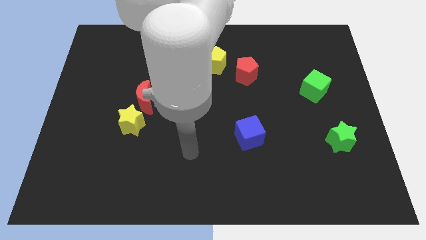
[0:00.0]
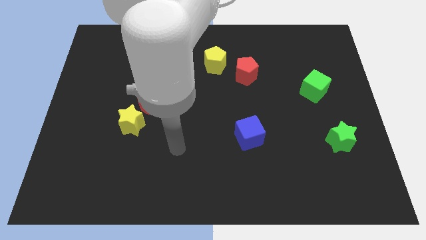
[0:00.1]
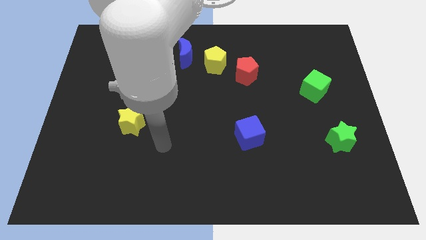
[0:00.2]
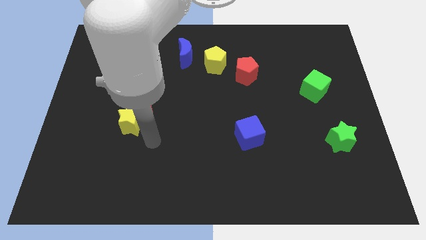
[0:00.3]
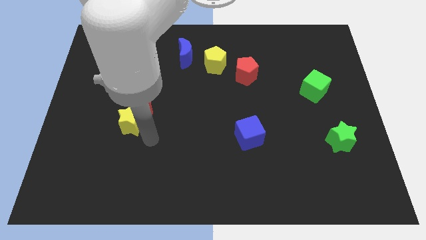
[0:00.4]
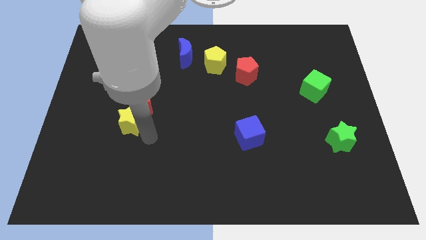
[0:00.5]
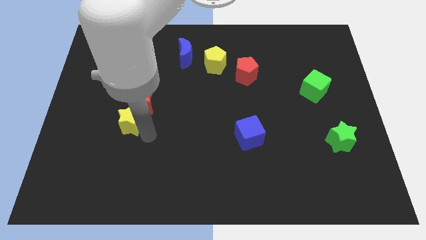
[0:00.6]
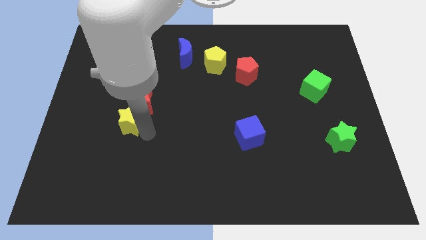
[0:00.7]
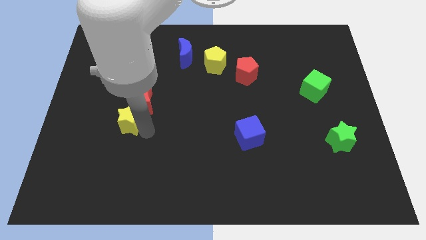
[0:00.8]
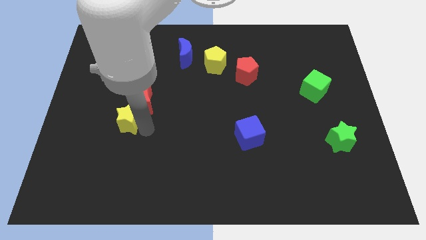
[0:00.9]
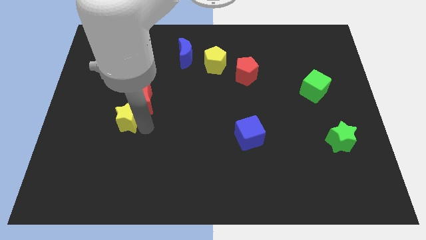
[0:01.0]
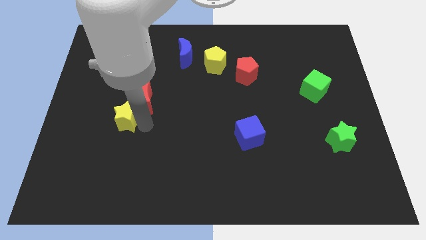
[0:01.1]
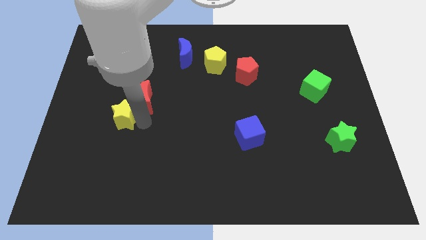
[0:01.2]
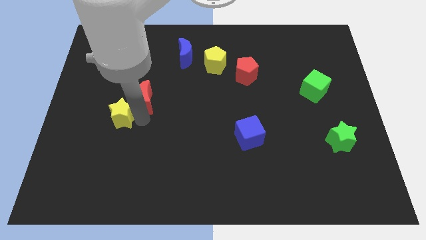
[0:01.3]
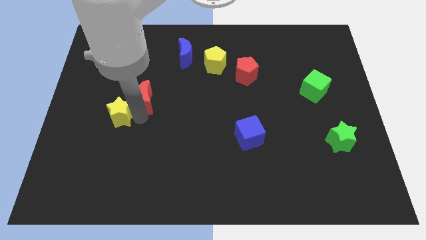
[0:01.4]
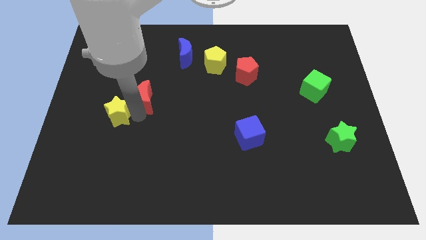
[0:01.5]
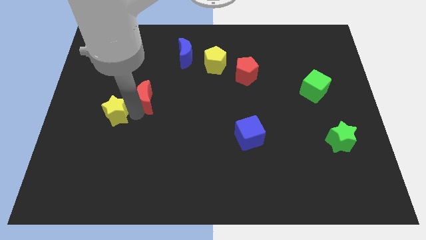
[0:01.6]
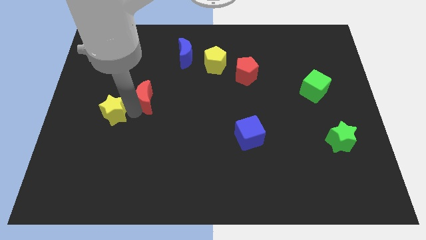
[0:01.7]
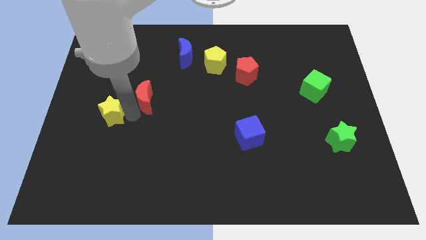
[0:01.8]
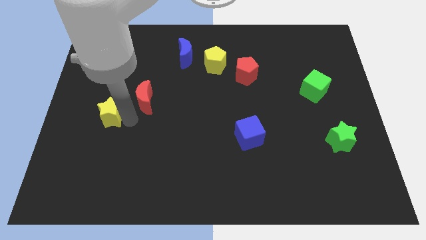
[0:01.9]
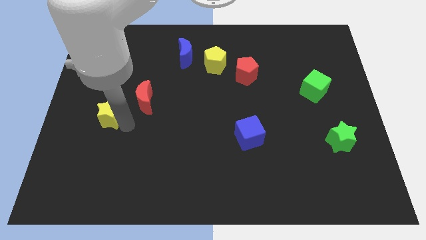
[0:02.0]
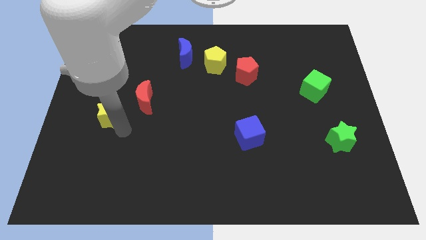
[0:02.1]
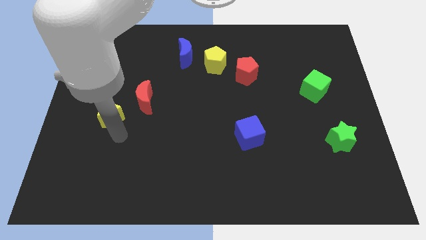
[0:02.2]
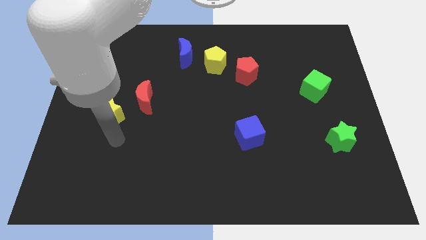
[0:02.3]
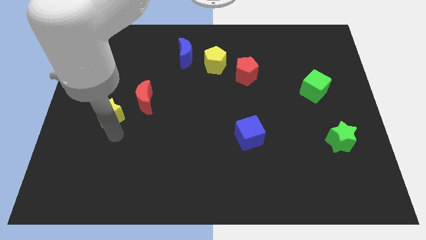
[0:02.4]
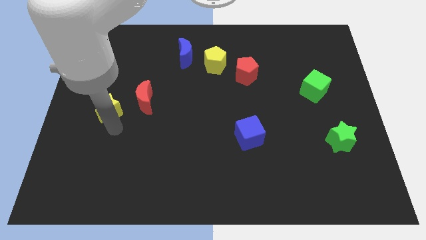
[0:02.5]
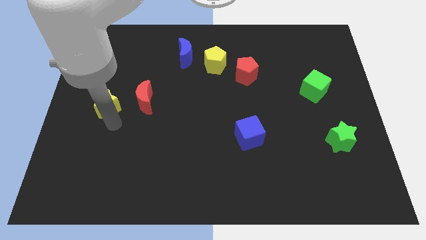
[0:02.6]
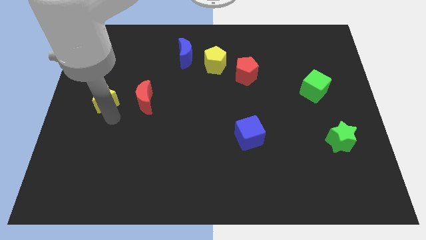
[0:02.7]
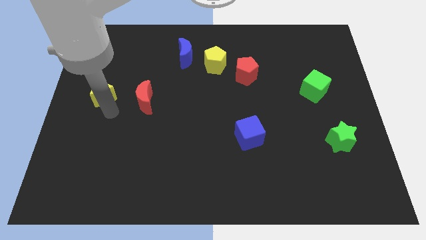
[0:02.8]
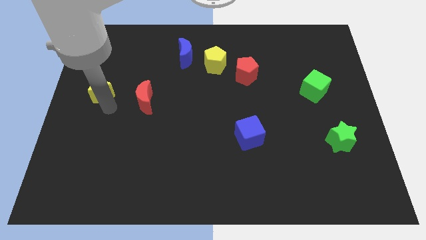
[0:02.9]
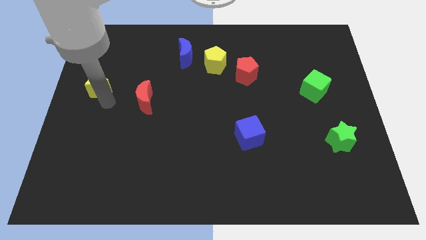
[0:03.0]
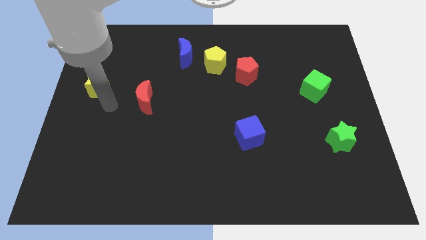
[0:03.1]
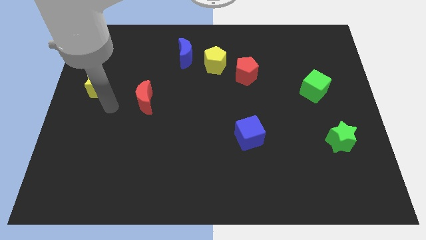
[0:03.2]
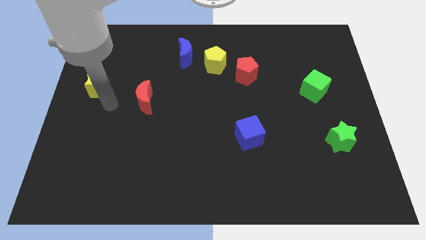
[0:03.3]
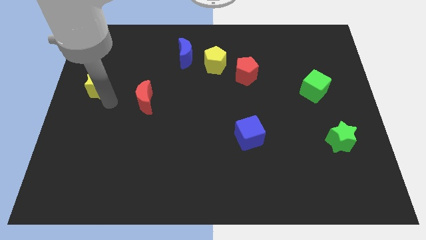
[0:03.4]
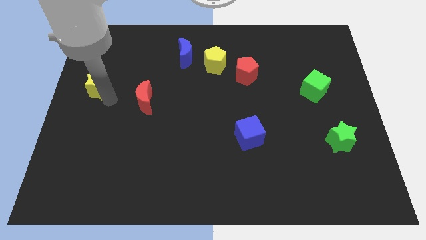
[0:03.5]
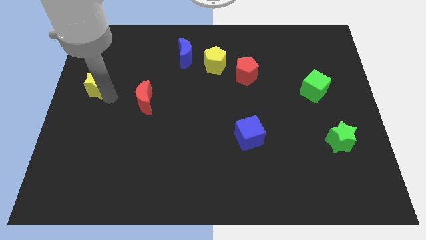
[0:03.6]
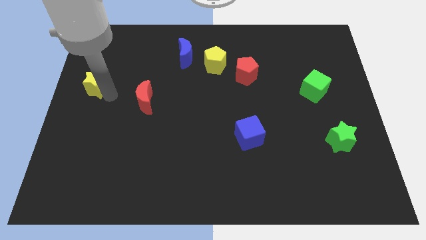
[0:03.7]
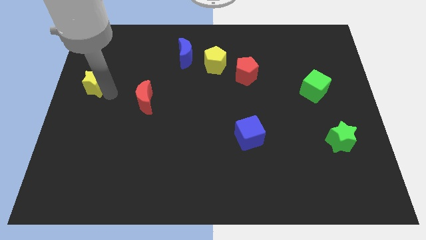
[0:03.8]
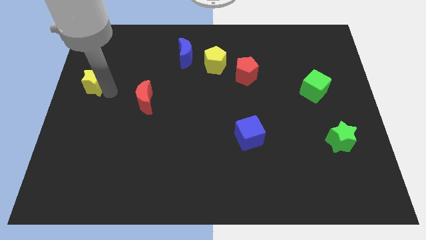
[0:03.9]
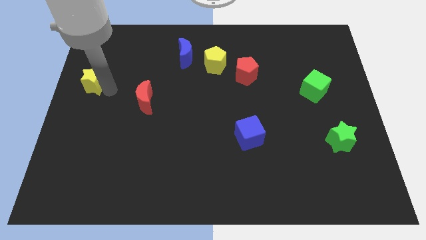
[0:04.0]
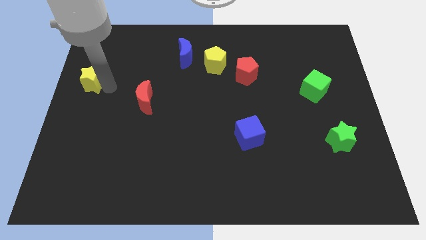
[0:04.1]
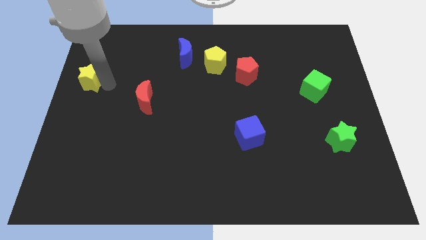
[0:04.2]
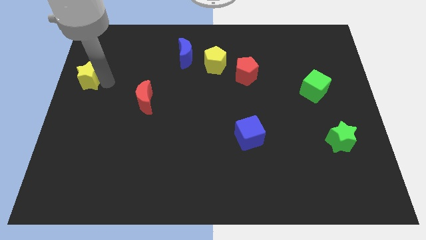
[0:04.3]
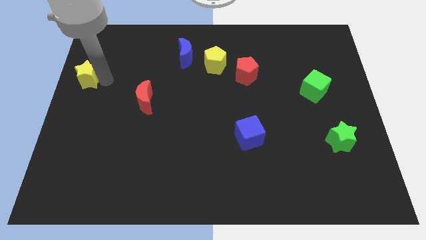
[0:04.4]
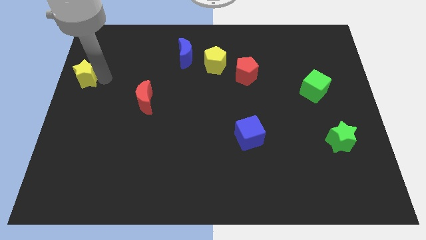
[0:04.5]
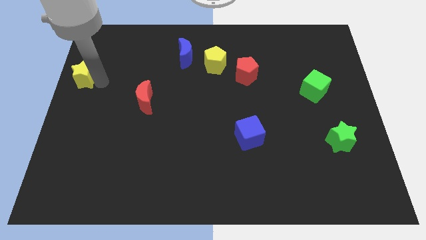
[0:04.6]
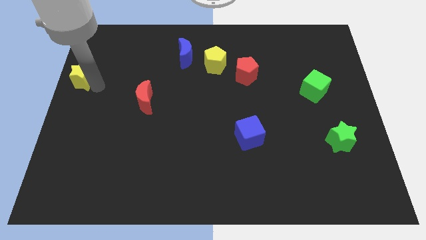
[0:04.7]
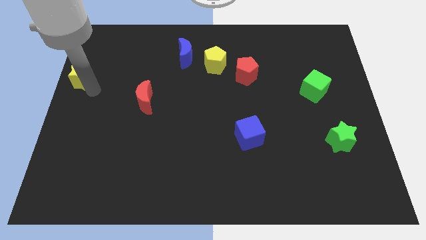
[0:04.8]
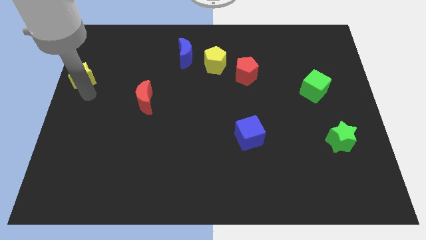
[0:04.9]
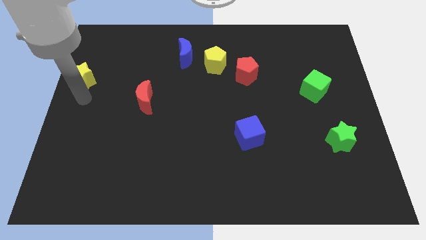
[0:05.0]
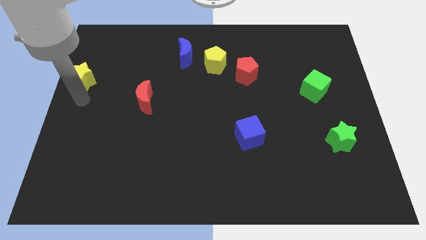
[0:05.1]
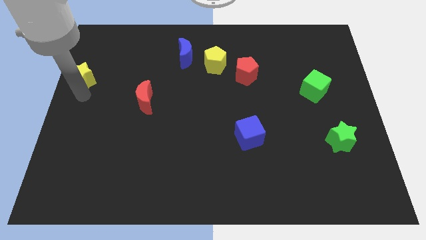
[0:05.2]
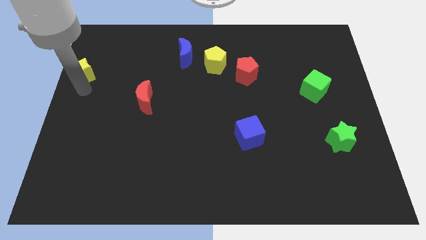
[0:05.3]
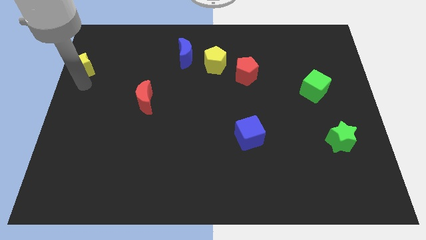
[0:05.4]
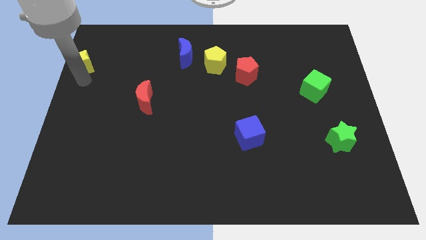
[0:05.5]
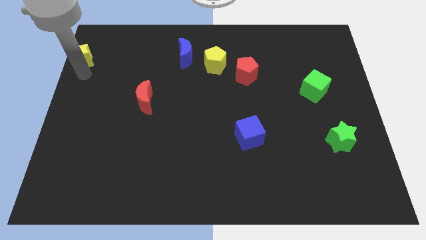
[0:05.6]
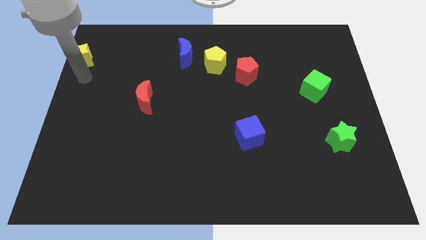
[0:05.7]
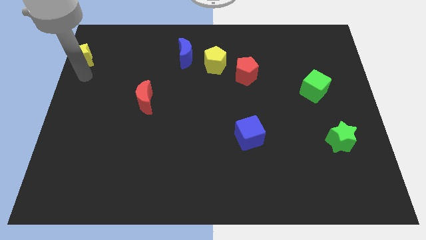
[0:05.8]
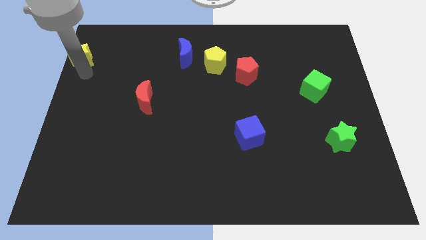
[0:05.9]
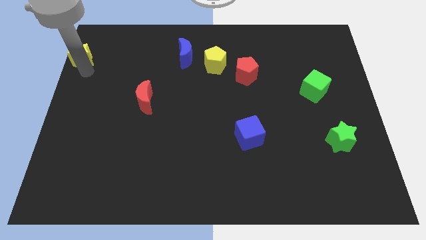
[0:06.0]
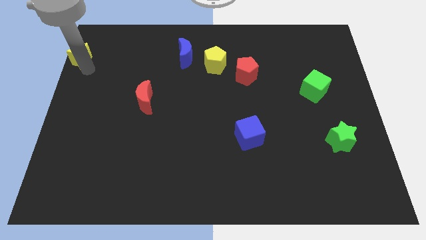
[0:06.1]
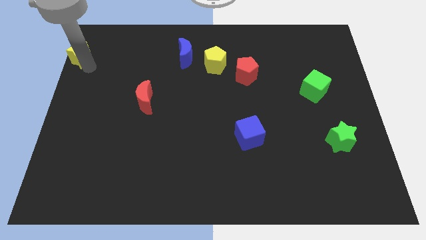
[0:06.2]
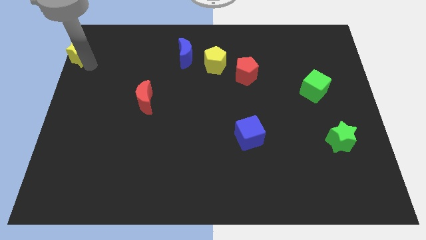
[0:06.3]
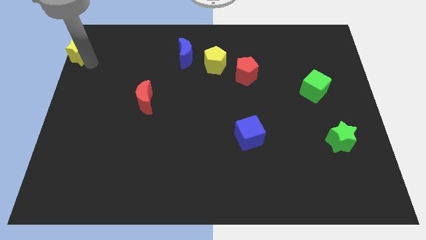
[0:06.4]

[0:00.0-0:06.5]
put the yellow star to the top left of the board

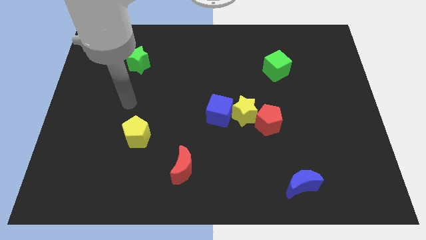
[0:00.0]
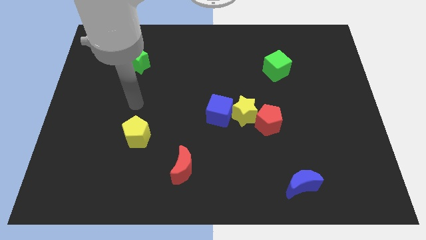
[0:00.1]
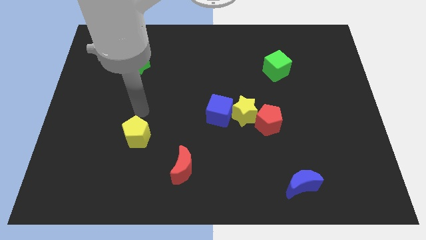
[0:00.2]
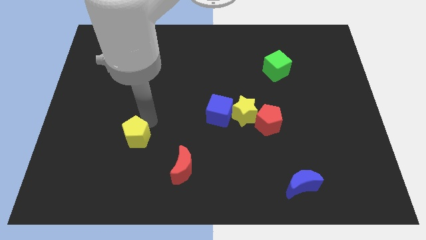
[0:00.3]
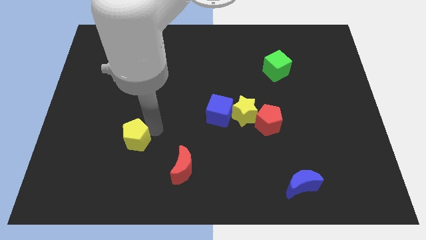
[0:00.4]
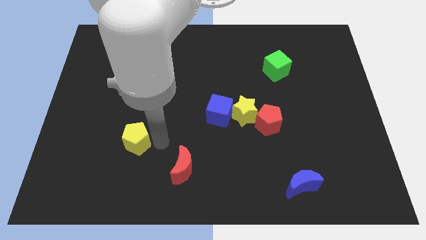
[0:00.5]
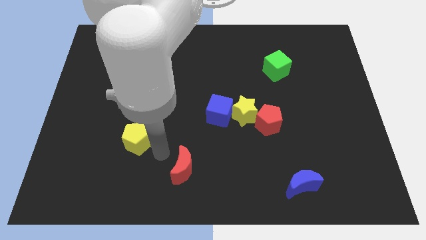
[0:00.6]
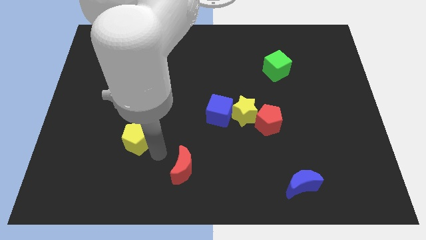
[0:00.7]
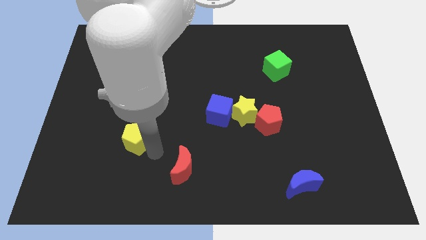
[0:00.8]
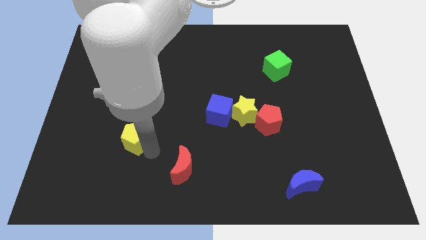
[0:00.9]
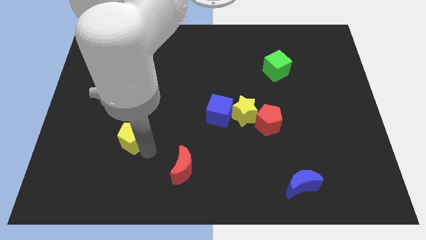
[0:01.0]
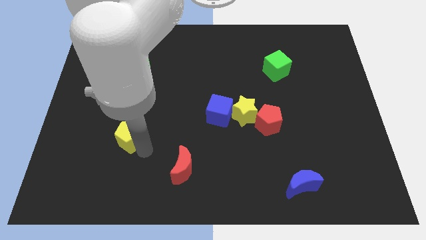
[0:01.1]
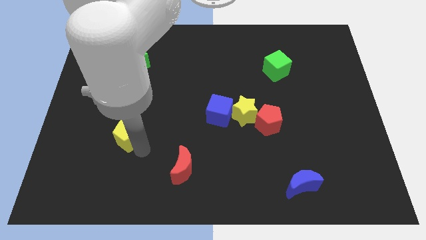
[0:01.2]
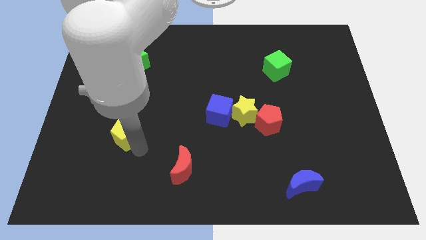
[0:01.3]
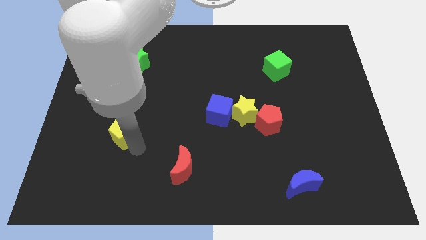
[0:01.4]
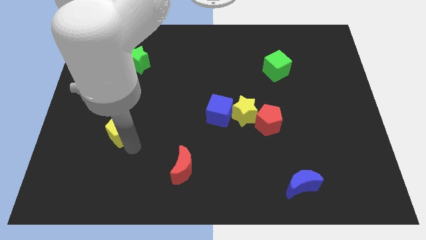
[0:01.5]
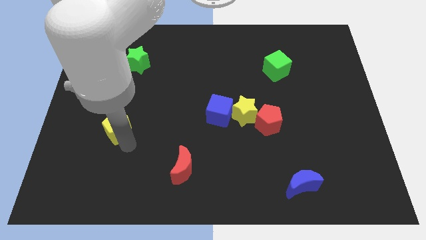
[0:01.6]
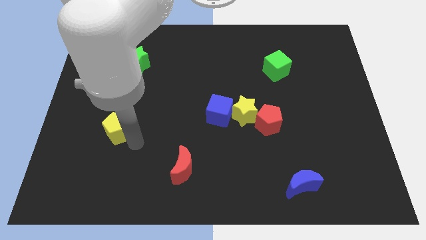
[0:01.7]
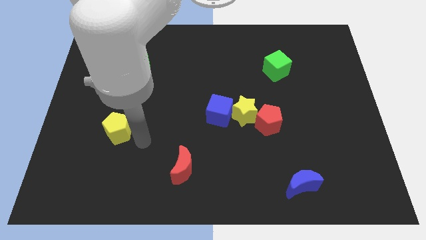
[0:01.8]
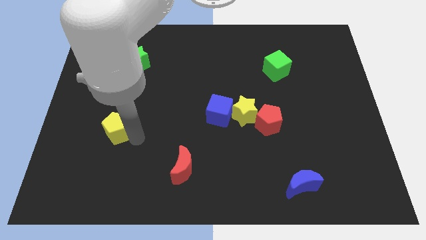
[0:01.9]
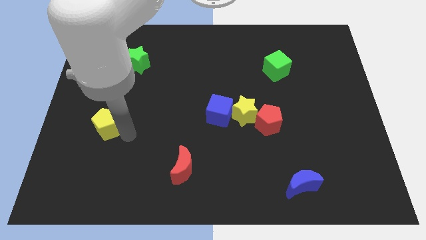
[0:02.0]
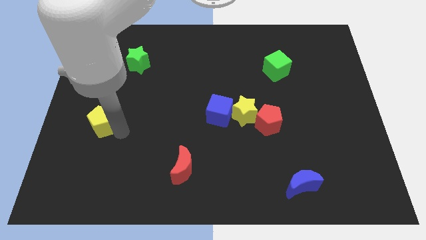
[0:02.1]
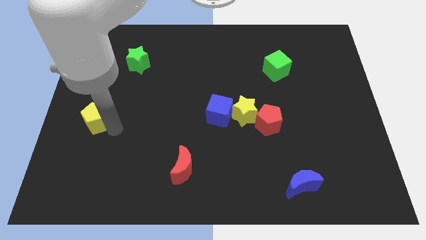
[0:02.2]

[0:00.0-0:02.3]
put the yellow pentagon to the left side of the board
